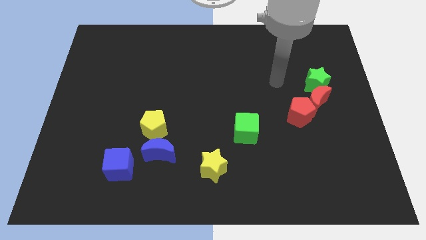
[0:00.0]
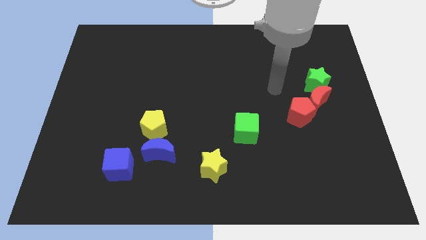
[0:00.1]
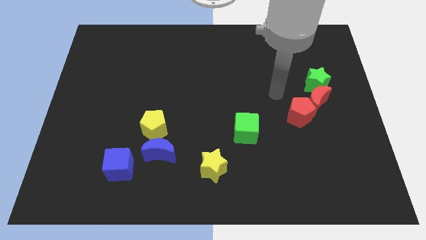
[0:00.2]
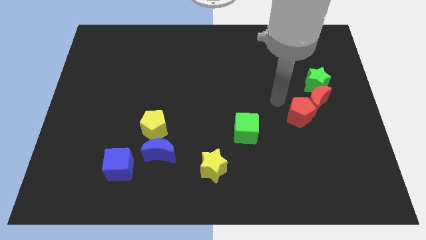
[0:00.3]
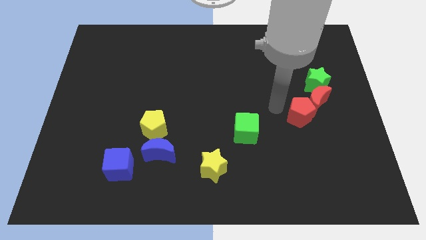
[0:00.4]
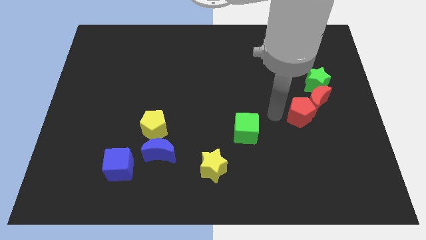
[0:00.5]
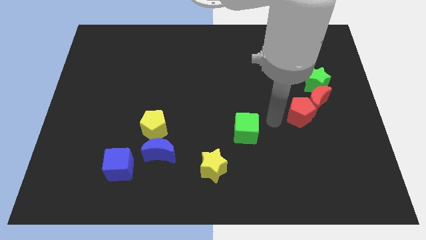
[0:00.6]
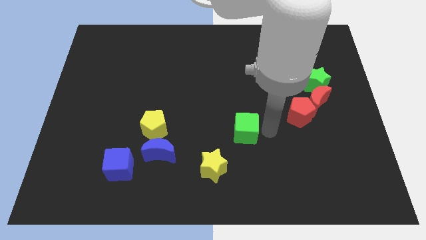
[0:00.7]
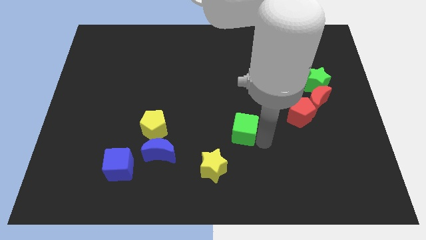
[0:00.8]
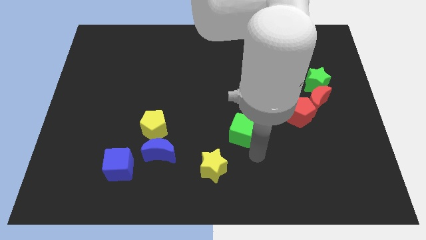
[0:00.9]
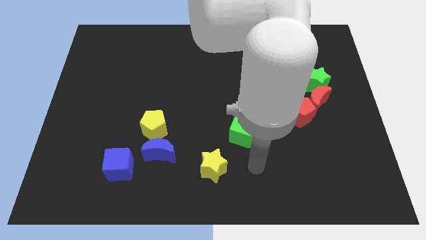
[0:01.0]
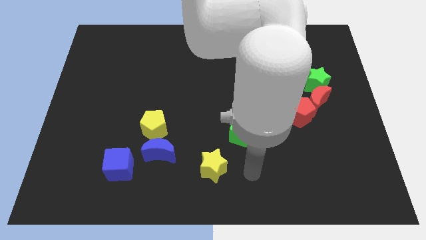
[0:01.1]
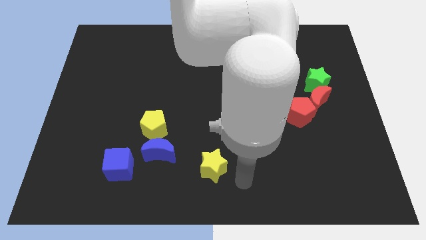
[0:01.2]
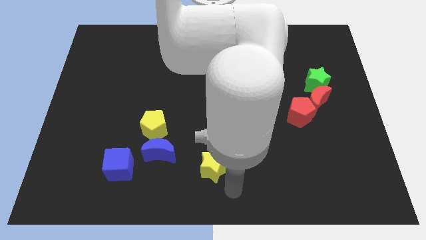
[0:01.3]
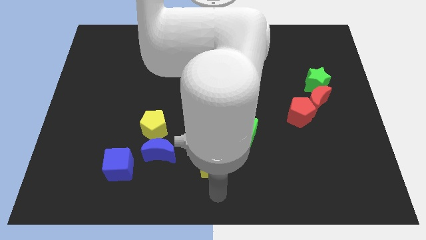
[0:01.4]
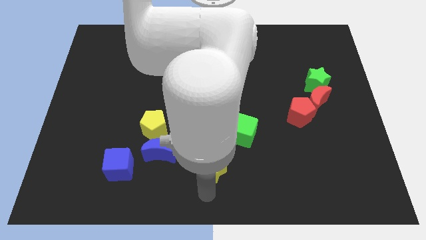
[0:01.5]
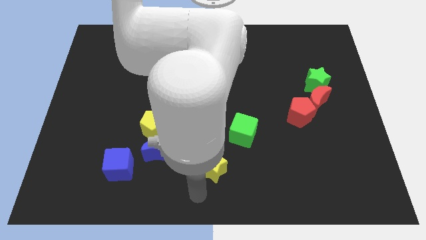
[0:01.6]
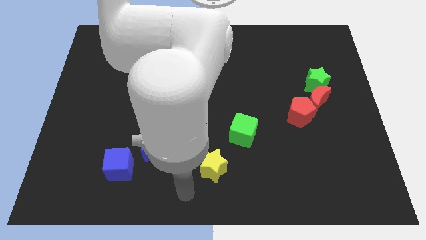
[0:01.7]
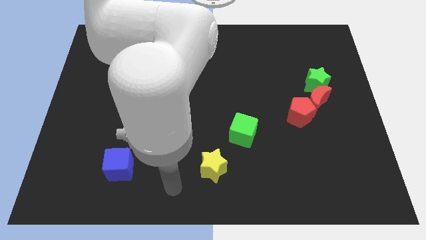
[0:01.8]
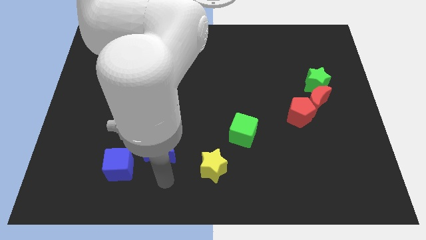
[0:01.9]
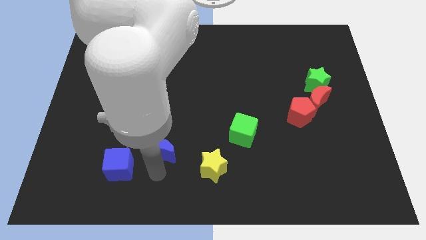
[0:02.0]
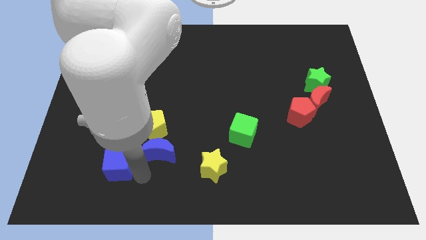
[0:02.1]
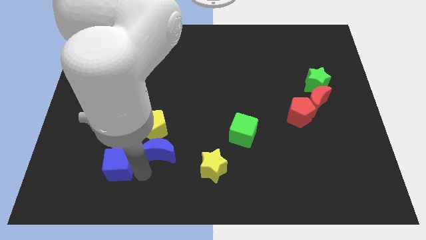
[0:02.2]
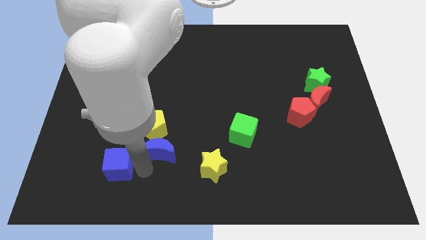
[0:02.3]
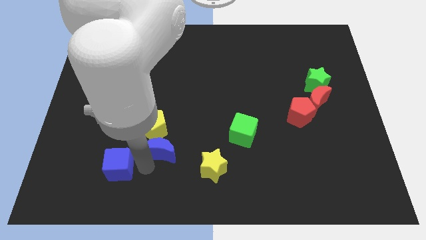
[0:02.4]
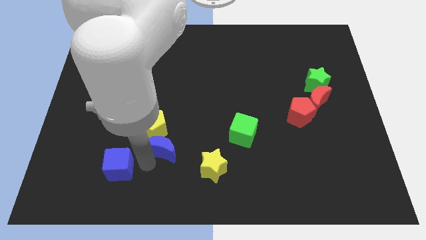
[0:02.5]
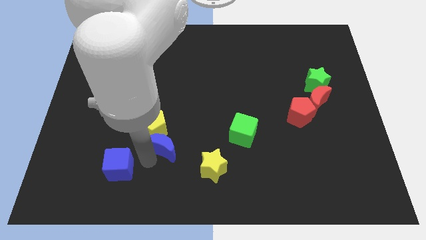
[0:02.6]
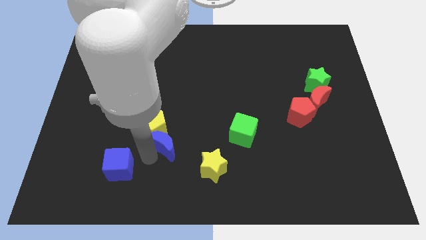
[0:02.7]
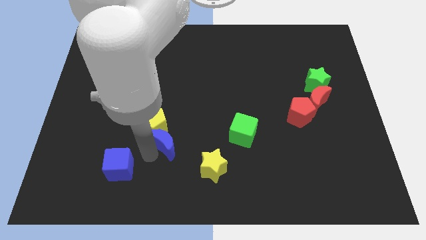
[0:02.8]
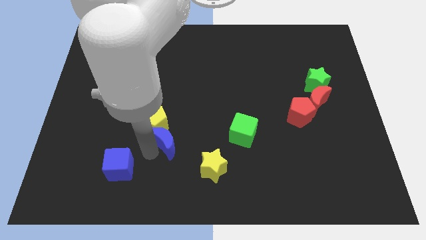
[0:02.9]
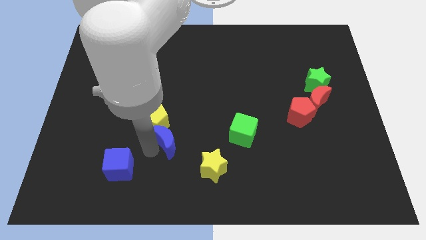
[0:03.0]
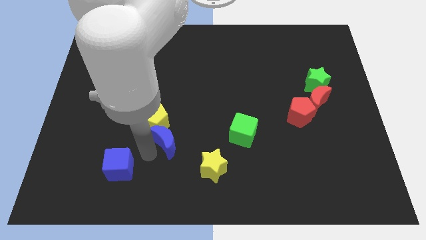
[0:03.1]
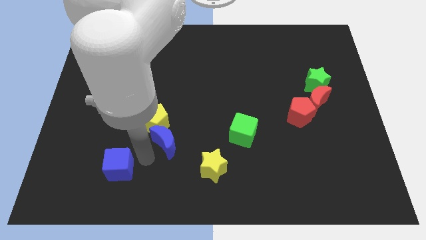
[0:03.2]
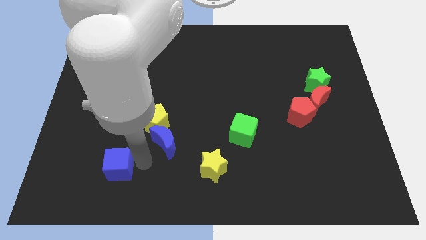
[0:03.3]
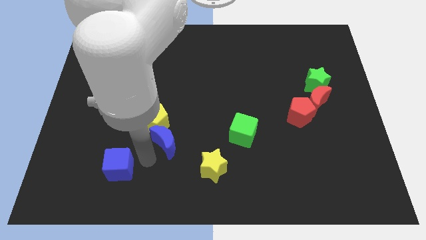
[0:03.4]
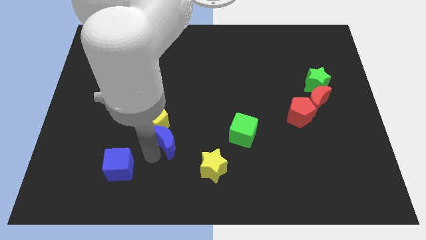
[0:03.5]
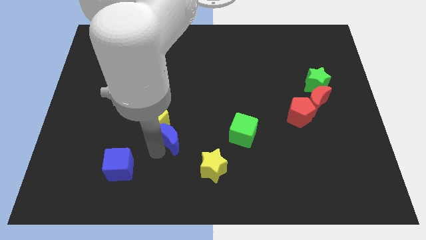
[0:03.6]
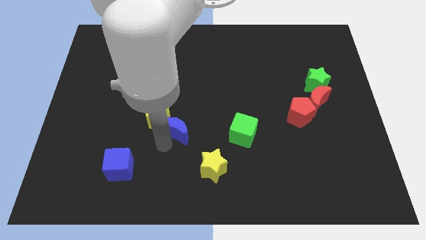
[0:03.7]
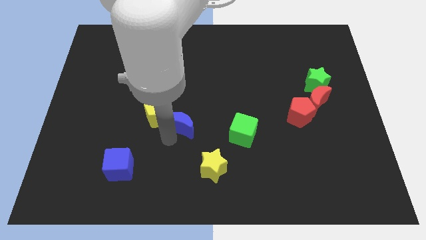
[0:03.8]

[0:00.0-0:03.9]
move the blue moon upwards and then to the right slightly

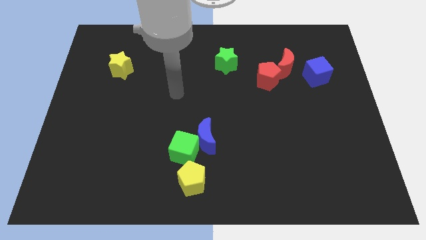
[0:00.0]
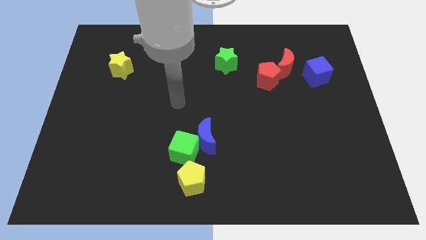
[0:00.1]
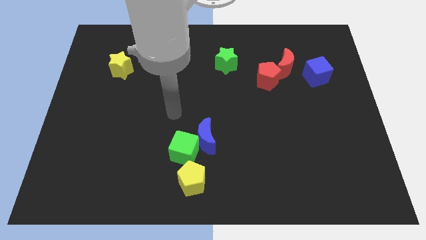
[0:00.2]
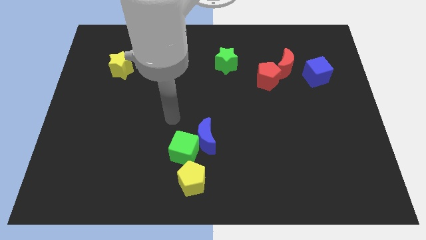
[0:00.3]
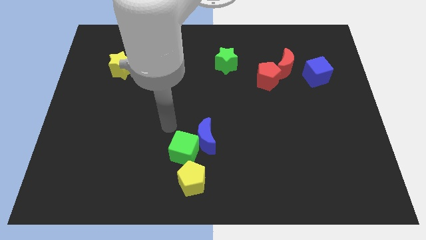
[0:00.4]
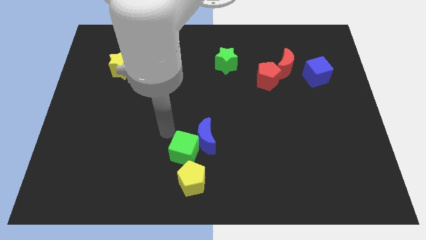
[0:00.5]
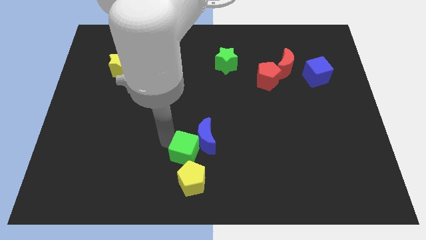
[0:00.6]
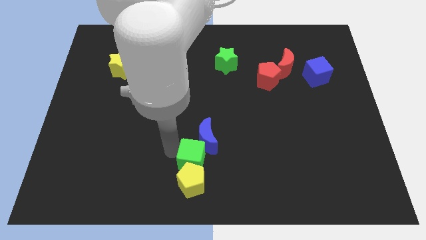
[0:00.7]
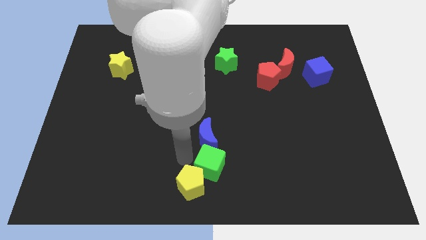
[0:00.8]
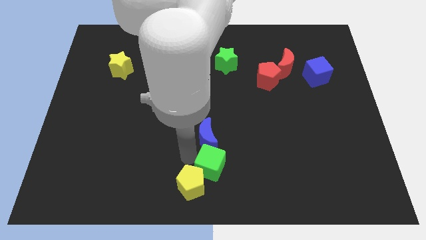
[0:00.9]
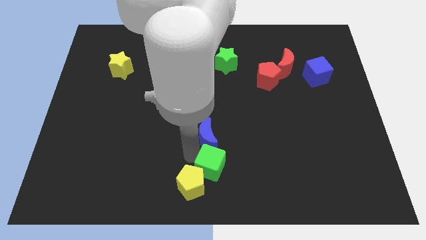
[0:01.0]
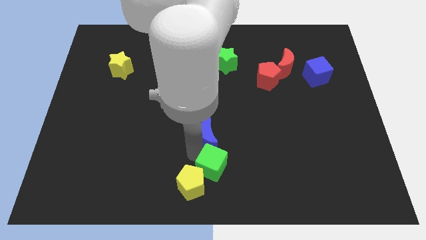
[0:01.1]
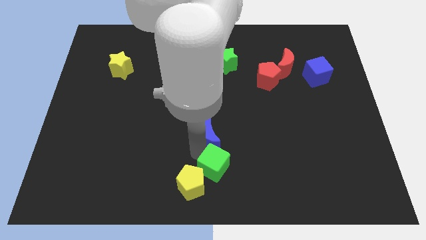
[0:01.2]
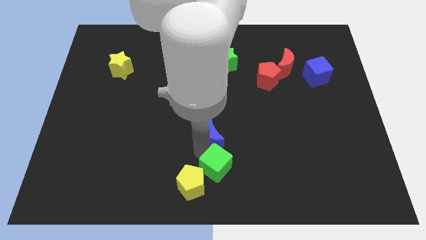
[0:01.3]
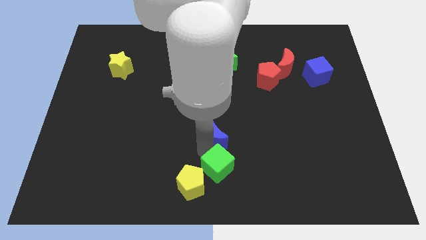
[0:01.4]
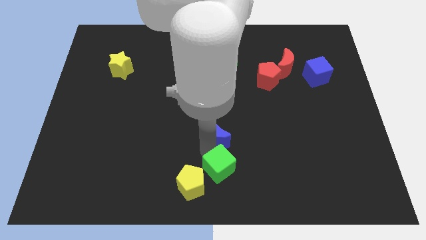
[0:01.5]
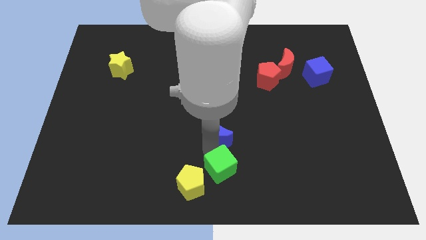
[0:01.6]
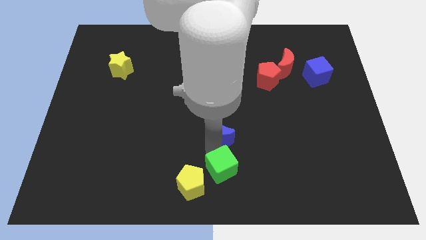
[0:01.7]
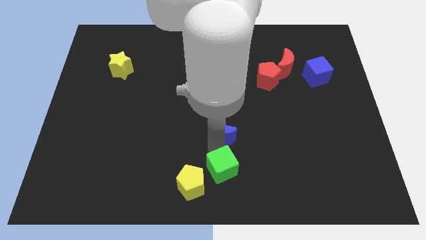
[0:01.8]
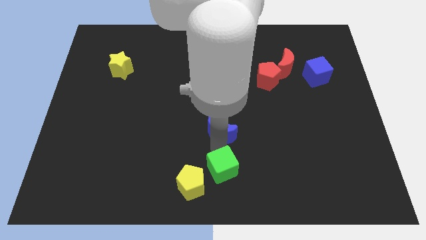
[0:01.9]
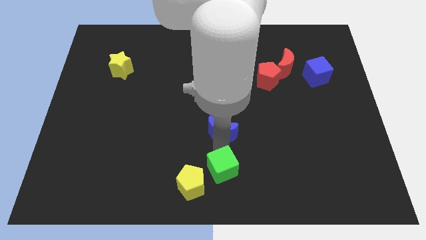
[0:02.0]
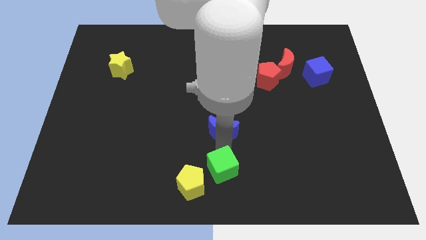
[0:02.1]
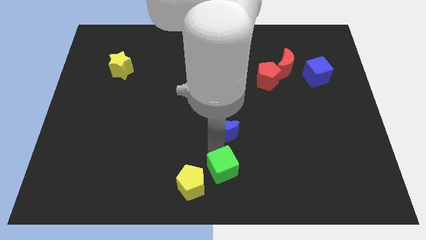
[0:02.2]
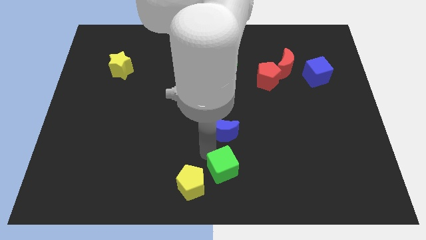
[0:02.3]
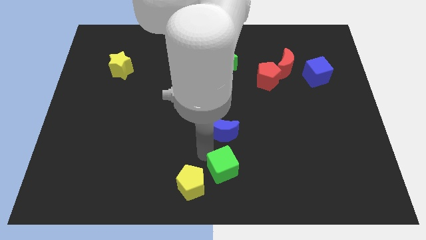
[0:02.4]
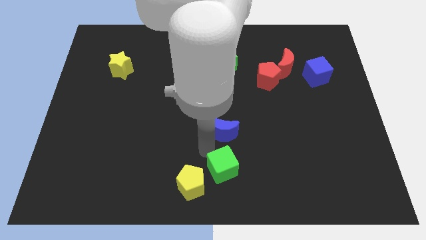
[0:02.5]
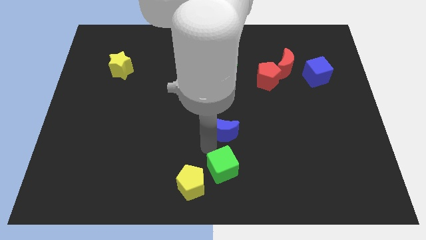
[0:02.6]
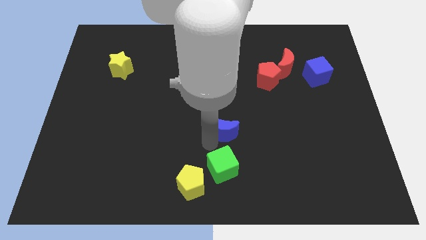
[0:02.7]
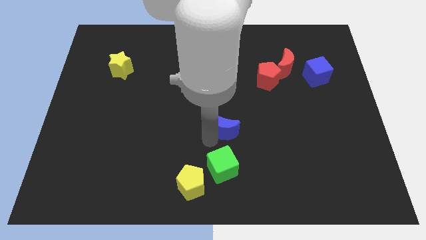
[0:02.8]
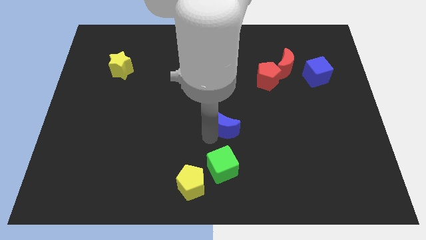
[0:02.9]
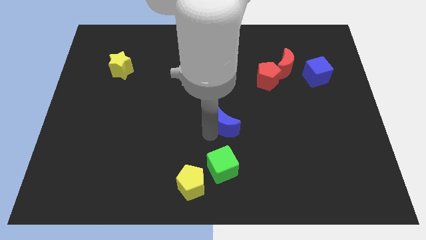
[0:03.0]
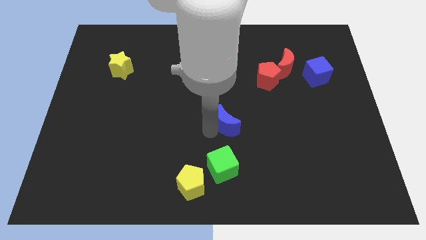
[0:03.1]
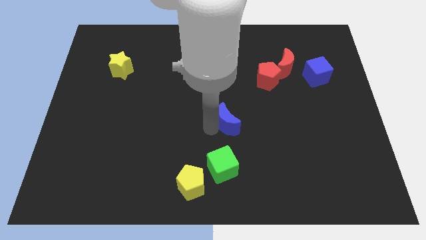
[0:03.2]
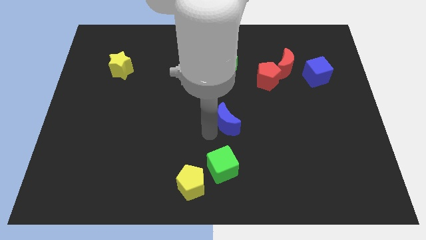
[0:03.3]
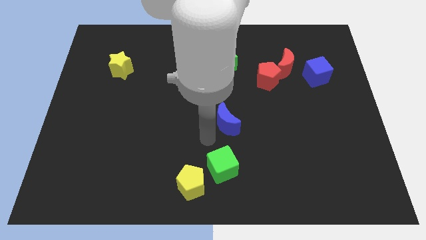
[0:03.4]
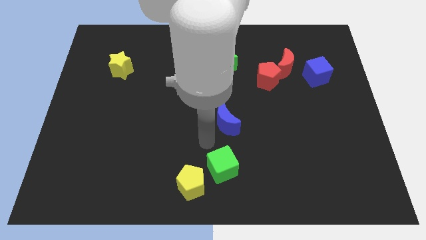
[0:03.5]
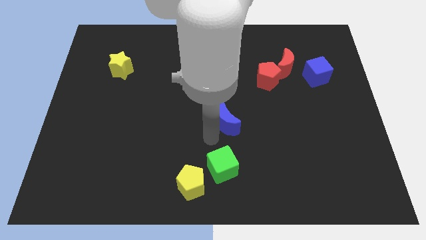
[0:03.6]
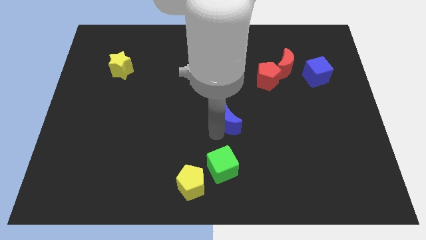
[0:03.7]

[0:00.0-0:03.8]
push the blue moon upwards and to the right diagonally slightly

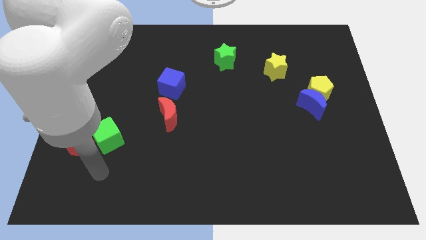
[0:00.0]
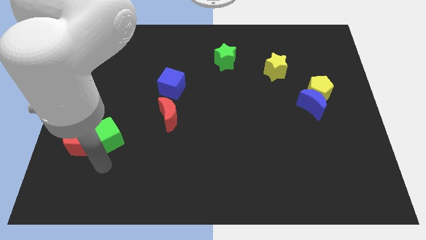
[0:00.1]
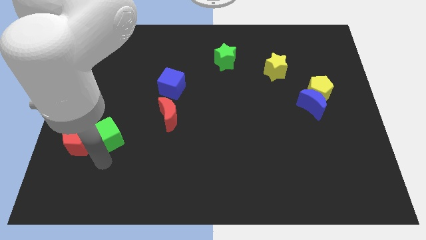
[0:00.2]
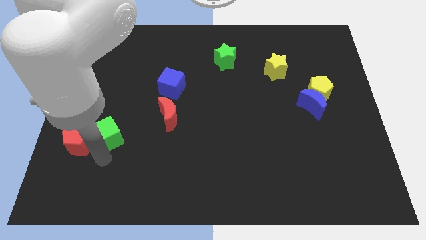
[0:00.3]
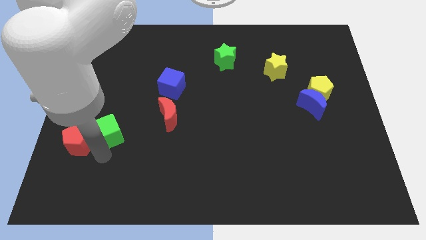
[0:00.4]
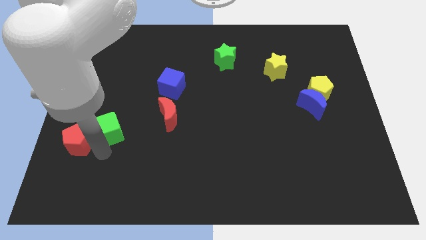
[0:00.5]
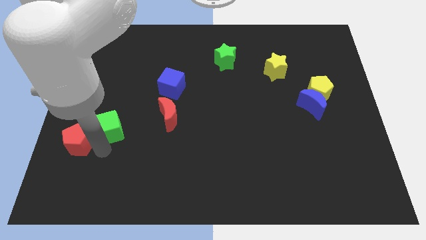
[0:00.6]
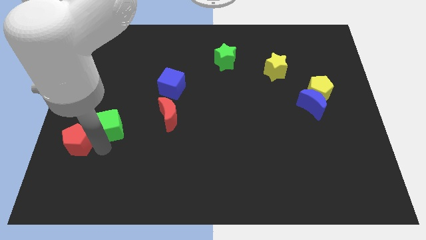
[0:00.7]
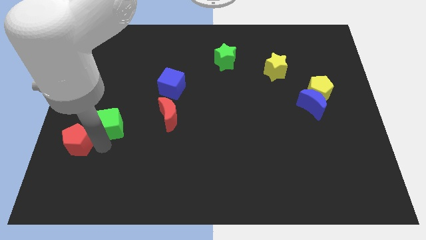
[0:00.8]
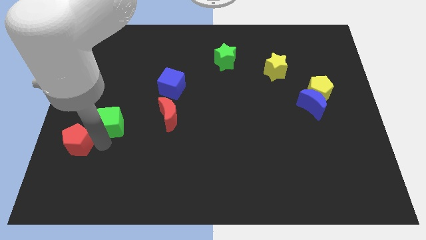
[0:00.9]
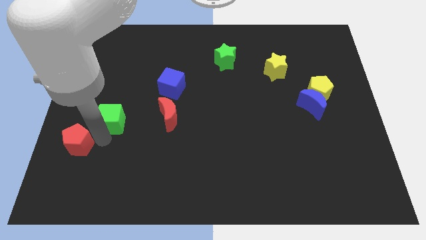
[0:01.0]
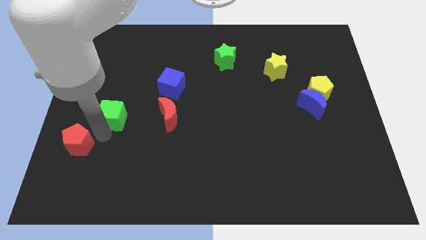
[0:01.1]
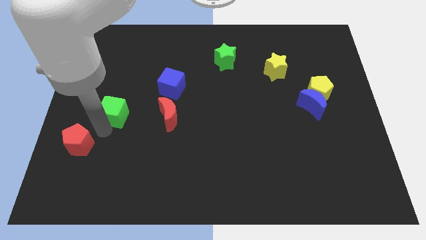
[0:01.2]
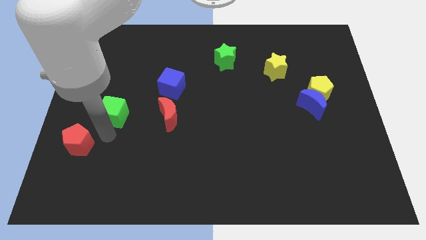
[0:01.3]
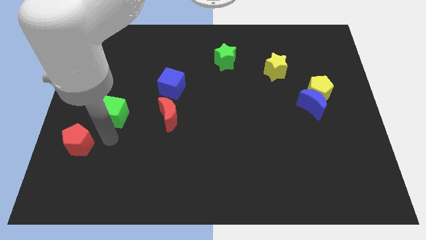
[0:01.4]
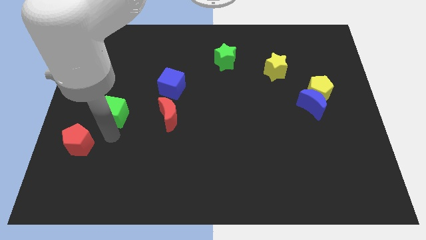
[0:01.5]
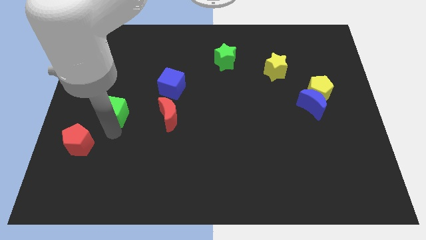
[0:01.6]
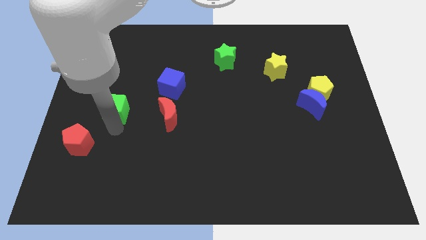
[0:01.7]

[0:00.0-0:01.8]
push the green cube a bit up
